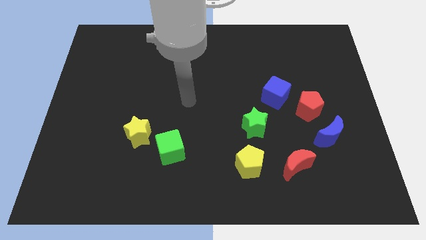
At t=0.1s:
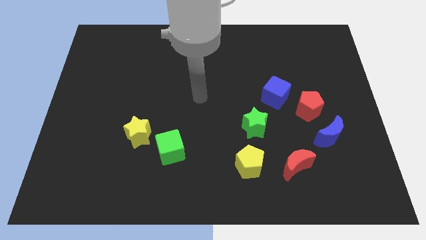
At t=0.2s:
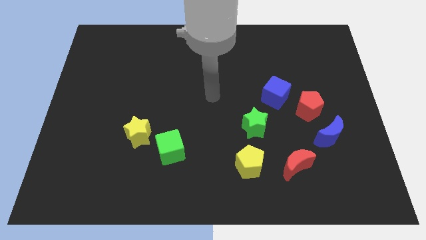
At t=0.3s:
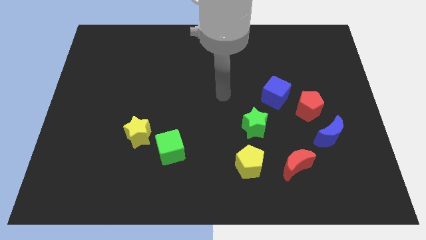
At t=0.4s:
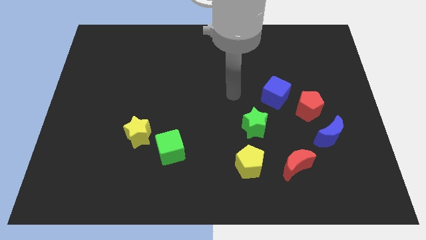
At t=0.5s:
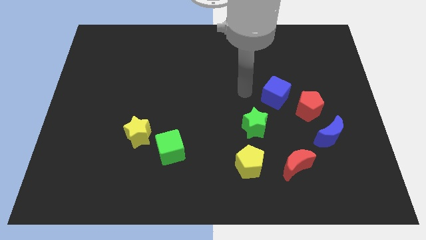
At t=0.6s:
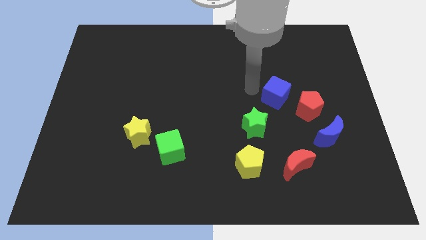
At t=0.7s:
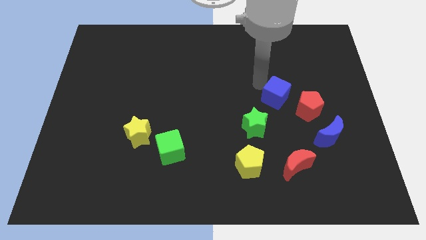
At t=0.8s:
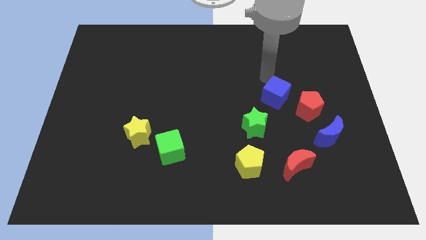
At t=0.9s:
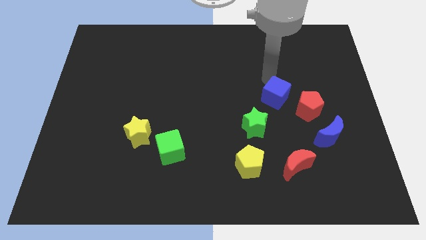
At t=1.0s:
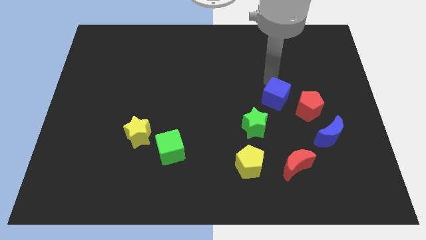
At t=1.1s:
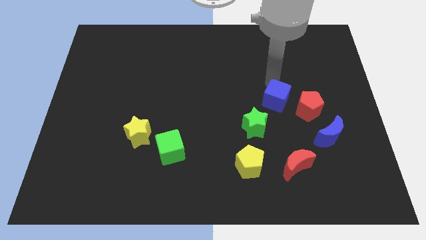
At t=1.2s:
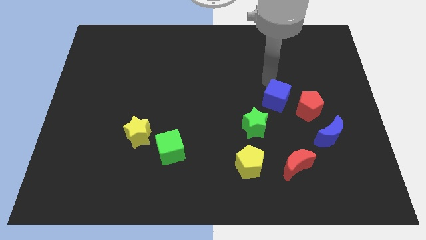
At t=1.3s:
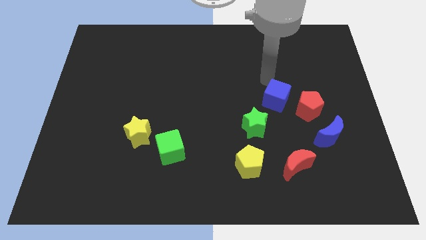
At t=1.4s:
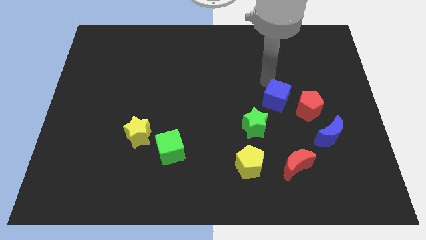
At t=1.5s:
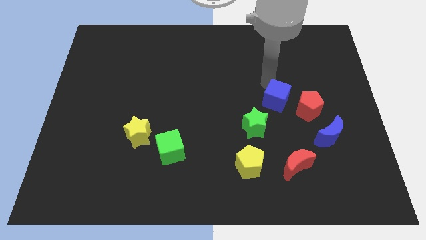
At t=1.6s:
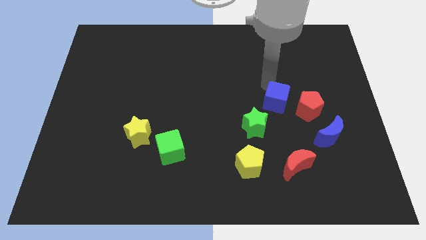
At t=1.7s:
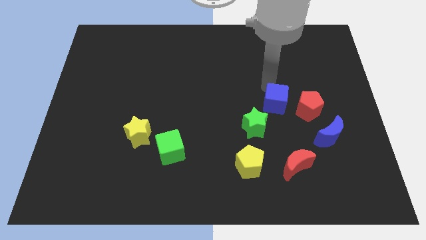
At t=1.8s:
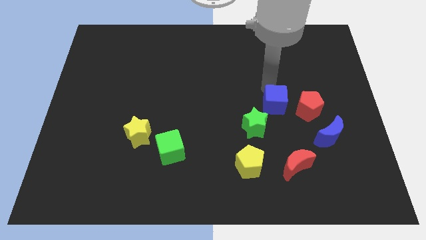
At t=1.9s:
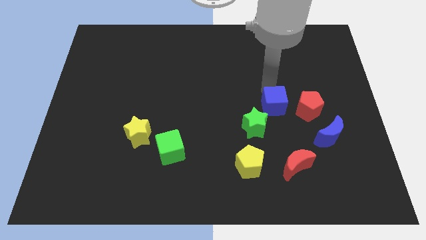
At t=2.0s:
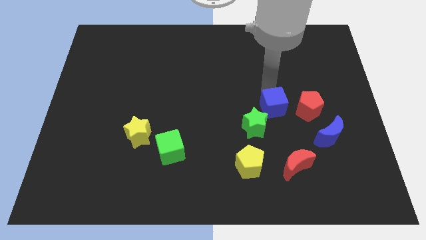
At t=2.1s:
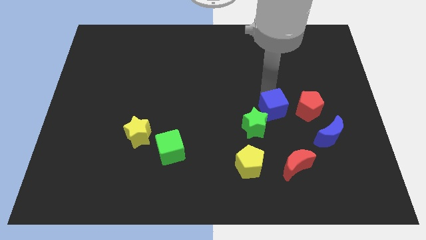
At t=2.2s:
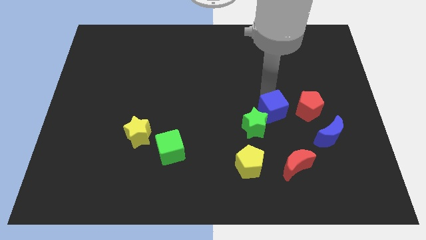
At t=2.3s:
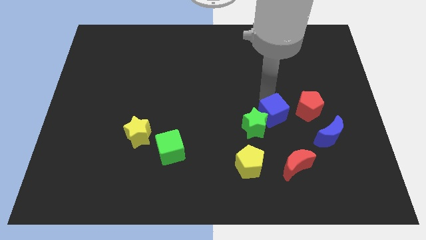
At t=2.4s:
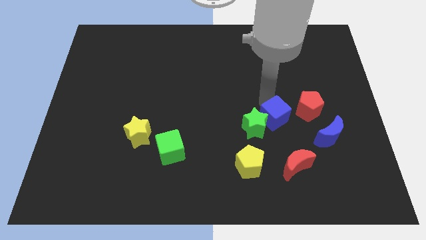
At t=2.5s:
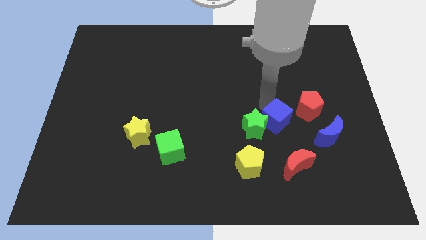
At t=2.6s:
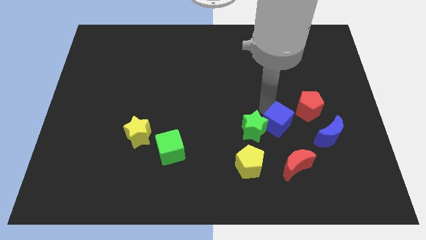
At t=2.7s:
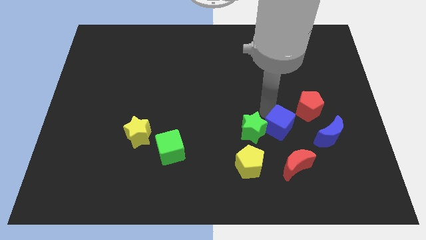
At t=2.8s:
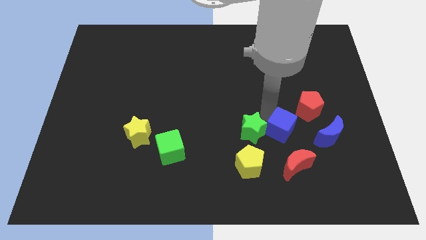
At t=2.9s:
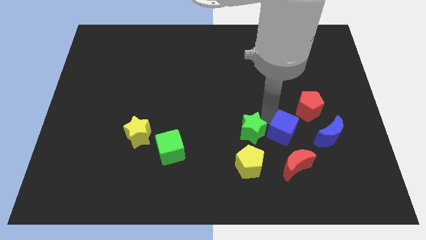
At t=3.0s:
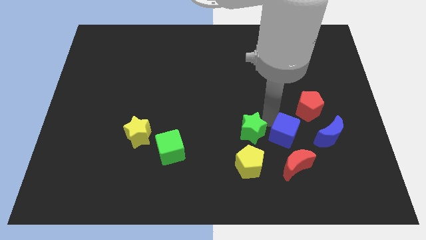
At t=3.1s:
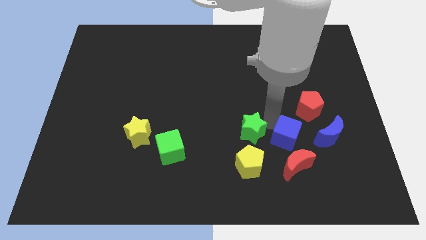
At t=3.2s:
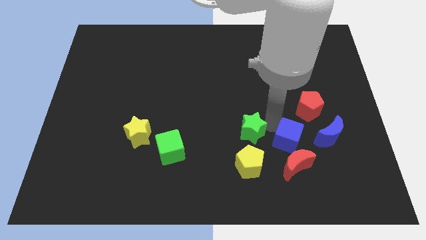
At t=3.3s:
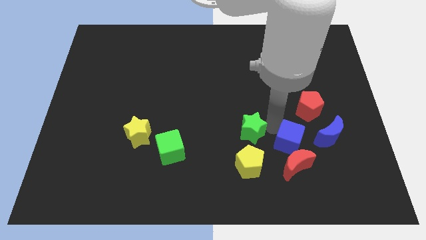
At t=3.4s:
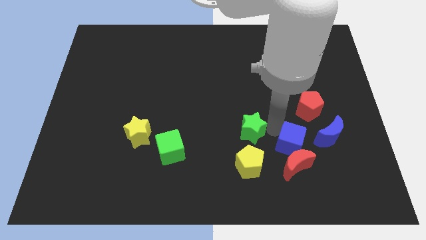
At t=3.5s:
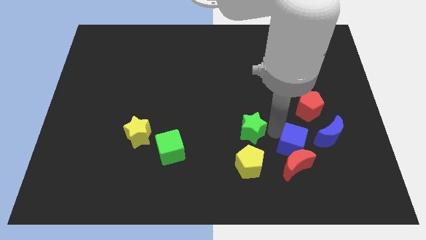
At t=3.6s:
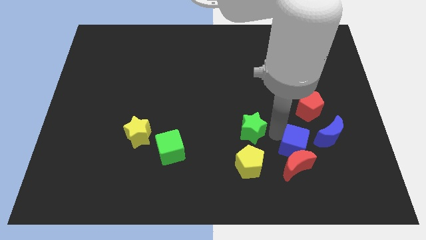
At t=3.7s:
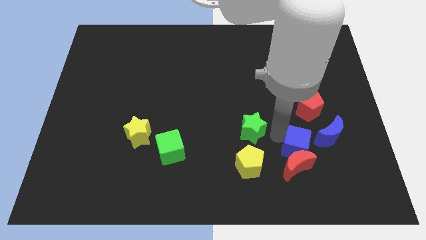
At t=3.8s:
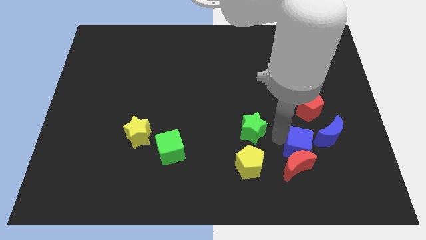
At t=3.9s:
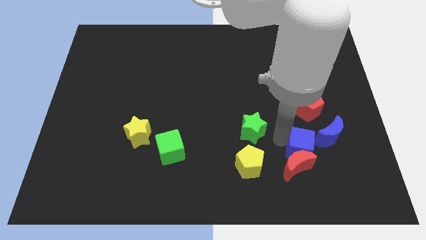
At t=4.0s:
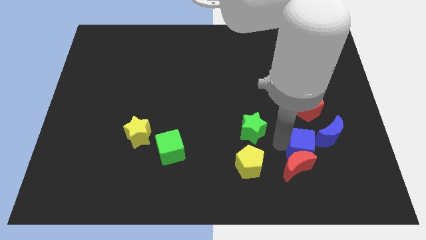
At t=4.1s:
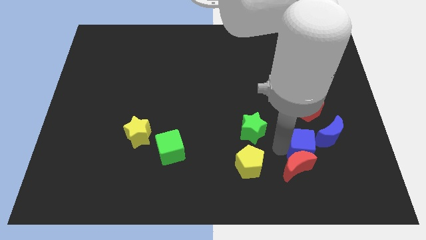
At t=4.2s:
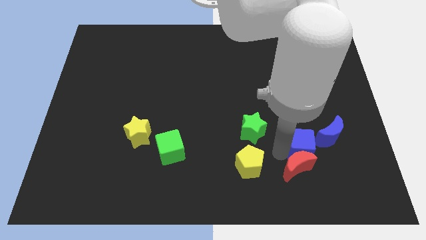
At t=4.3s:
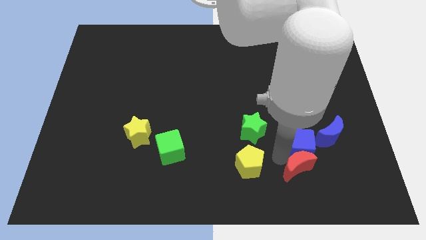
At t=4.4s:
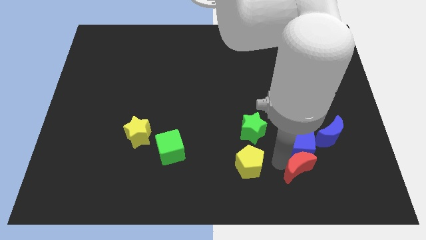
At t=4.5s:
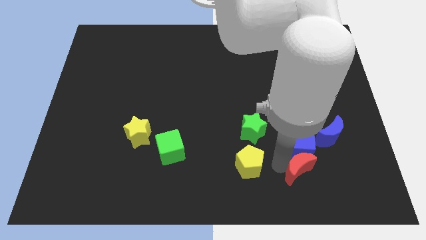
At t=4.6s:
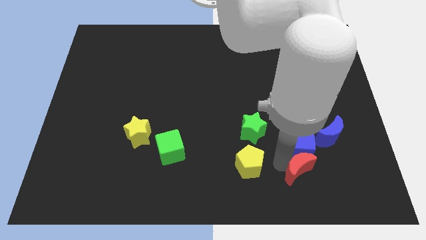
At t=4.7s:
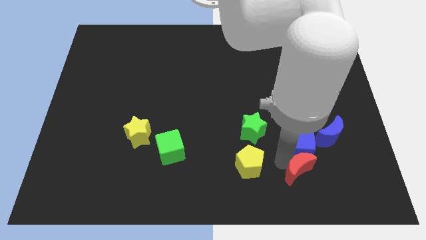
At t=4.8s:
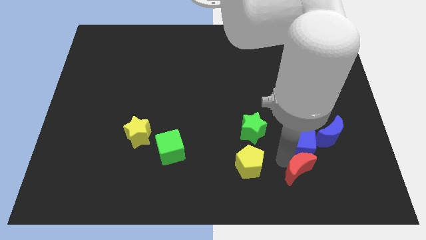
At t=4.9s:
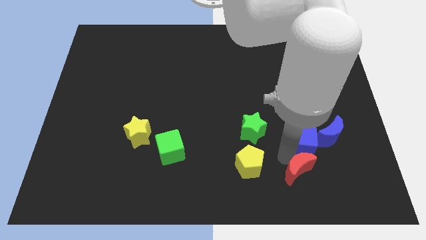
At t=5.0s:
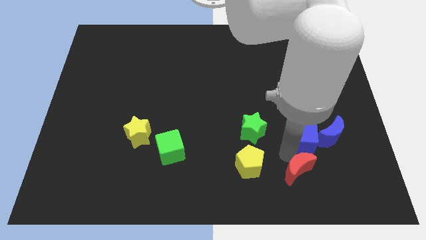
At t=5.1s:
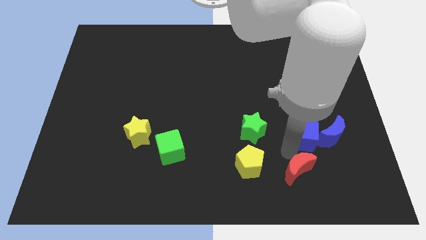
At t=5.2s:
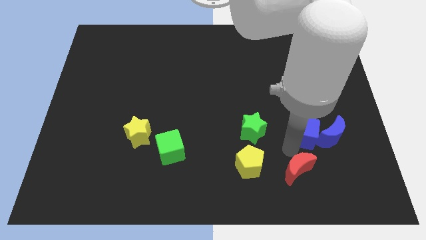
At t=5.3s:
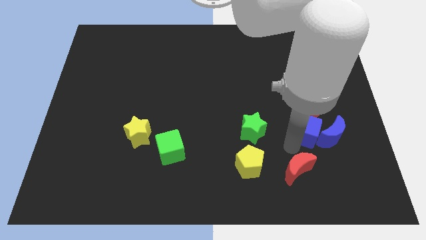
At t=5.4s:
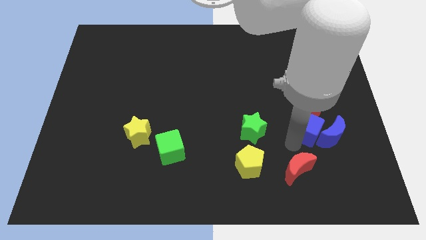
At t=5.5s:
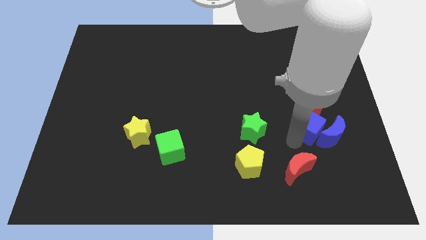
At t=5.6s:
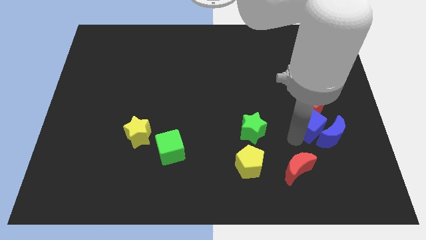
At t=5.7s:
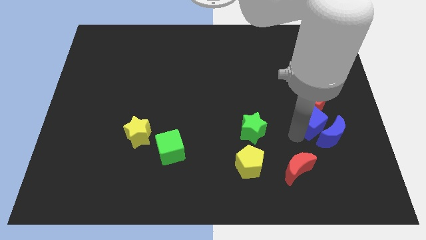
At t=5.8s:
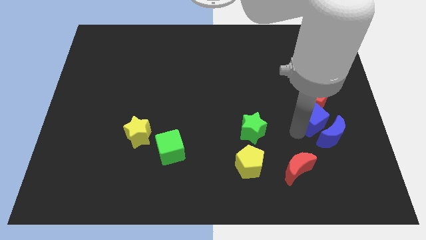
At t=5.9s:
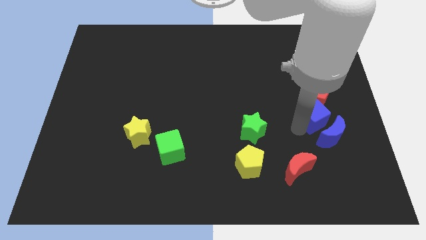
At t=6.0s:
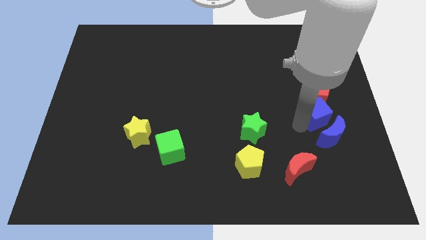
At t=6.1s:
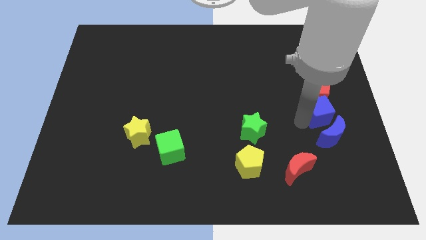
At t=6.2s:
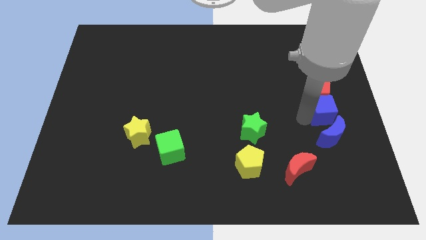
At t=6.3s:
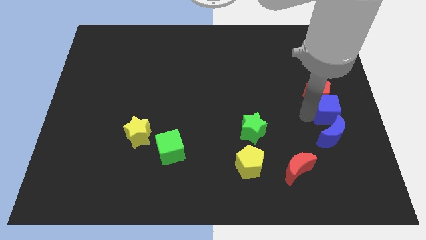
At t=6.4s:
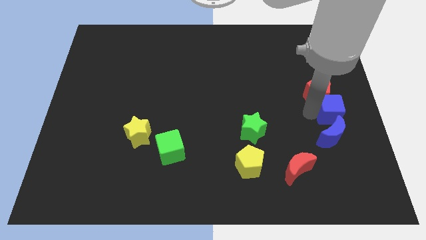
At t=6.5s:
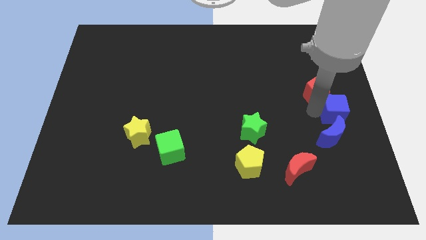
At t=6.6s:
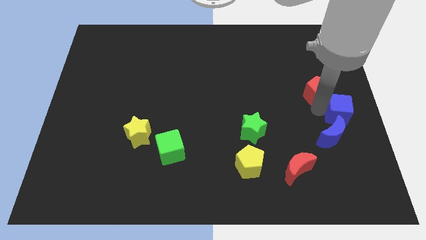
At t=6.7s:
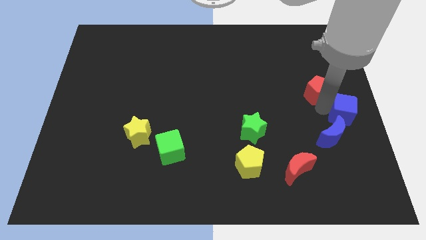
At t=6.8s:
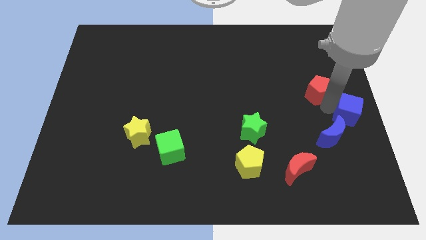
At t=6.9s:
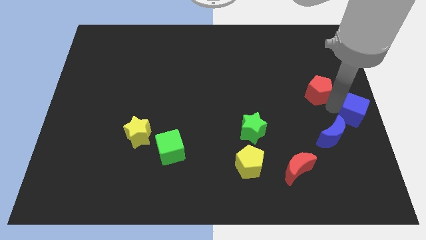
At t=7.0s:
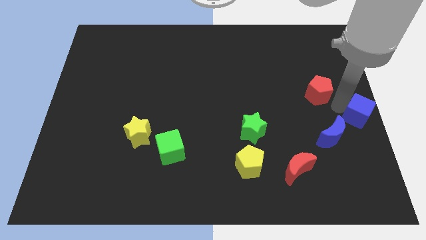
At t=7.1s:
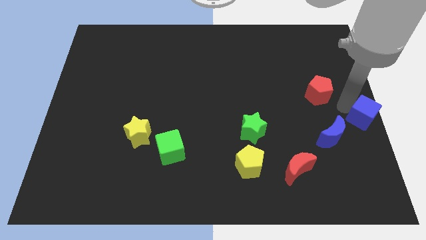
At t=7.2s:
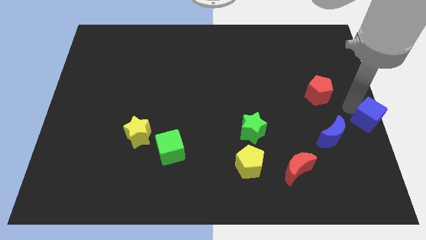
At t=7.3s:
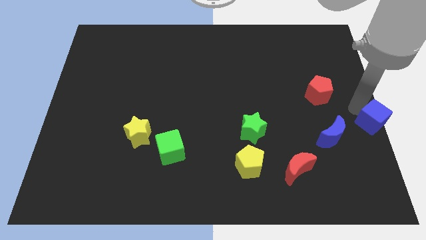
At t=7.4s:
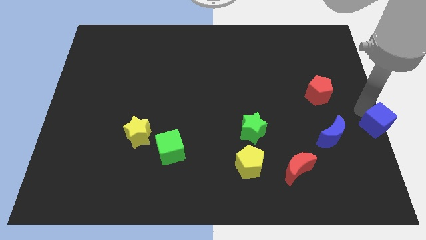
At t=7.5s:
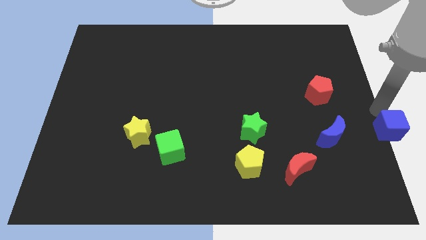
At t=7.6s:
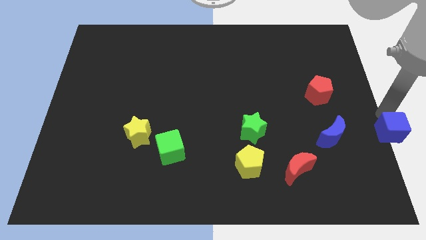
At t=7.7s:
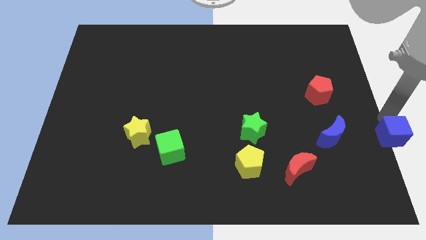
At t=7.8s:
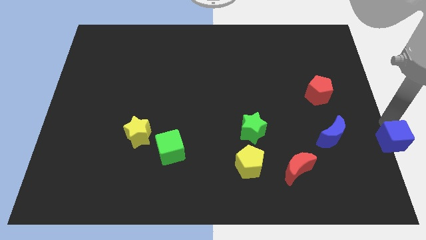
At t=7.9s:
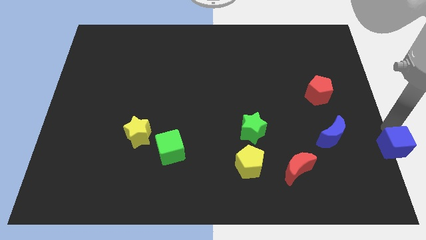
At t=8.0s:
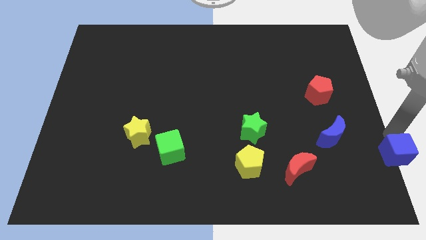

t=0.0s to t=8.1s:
move the blue cube to the lower right corner
